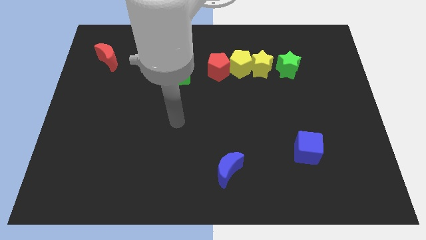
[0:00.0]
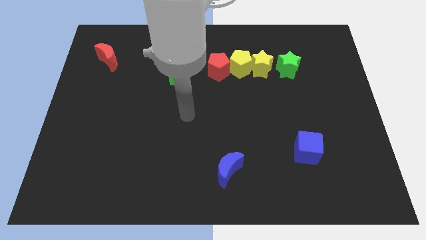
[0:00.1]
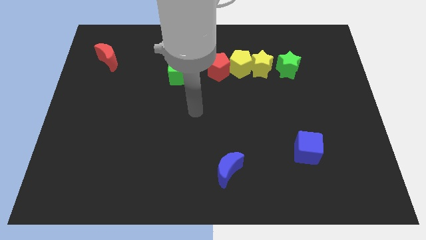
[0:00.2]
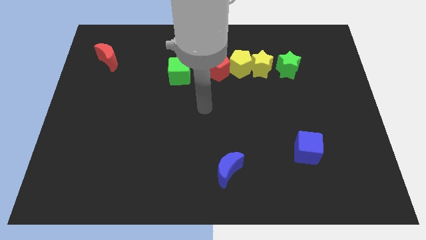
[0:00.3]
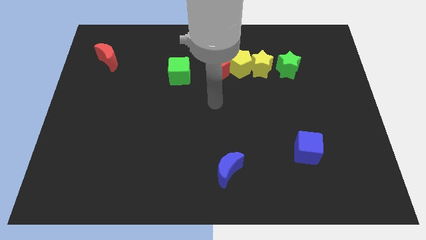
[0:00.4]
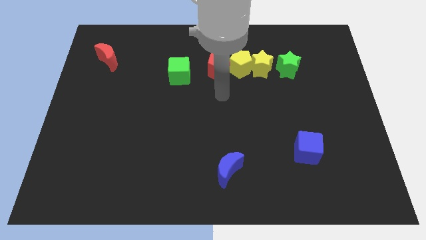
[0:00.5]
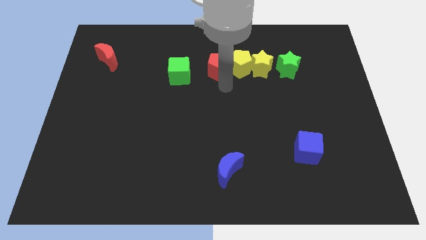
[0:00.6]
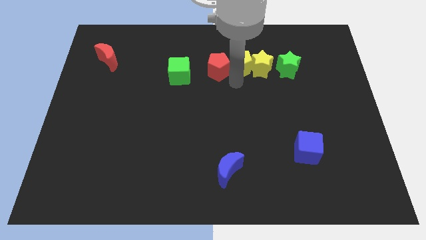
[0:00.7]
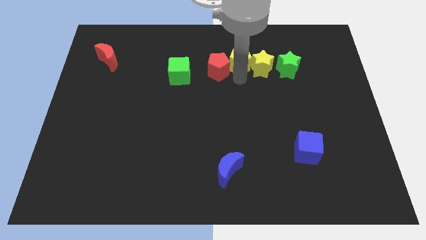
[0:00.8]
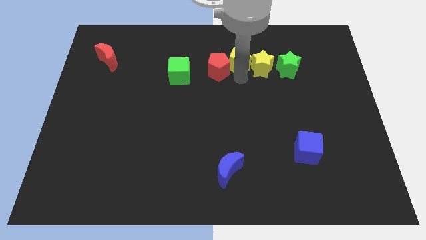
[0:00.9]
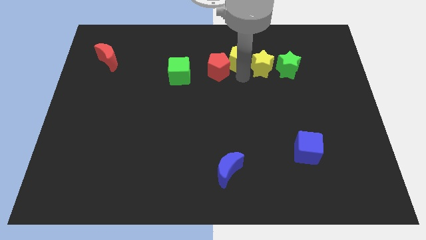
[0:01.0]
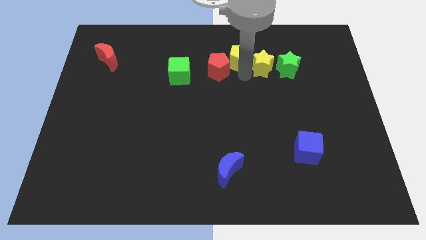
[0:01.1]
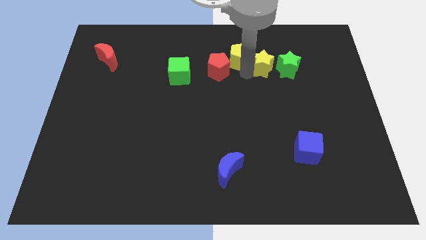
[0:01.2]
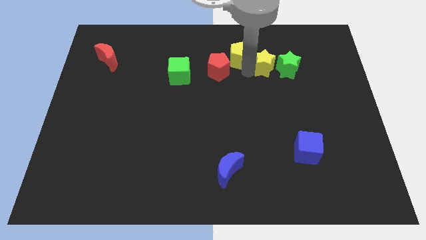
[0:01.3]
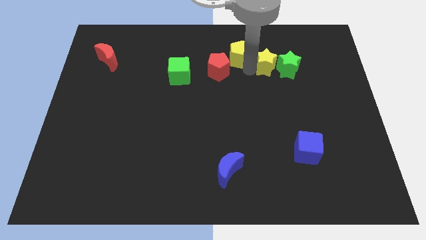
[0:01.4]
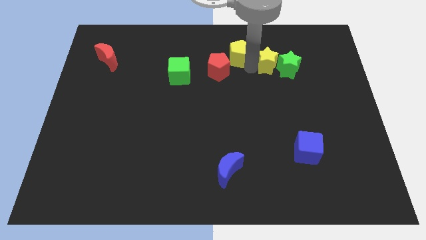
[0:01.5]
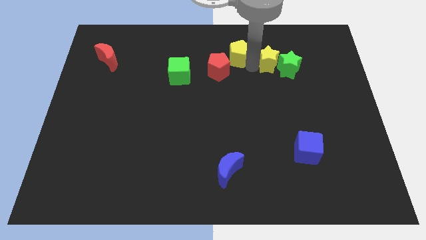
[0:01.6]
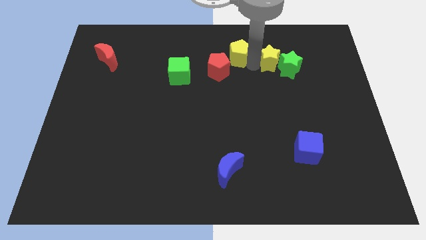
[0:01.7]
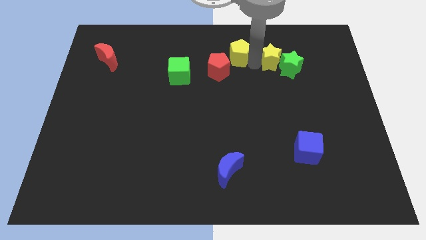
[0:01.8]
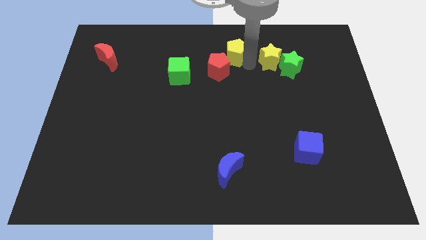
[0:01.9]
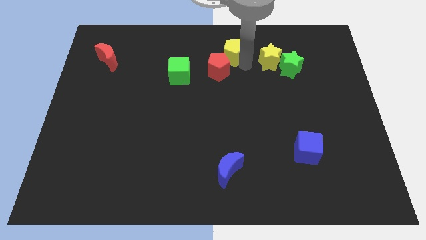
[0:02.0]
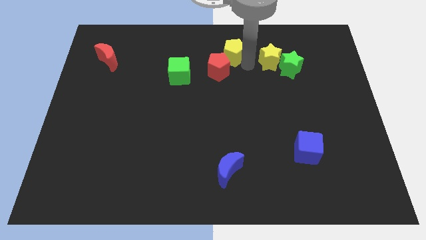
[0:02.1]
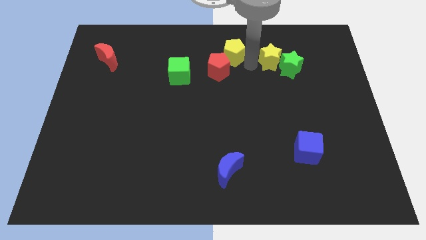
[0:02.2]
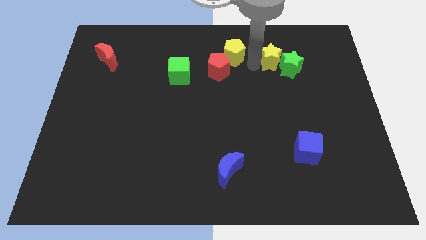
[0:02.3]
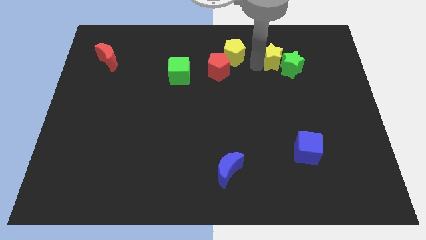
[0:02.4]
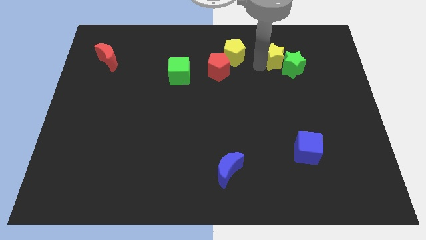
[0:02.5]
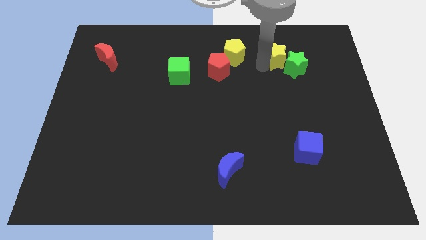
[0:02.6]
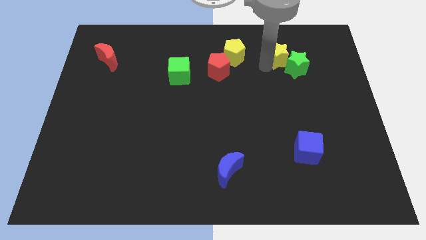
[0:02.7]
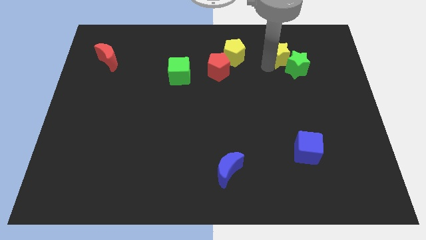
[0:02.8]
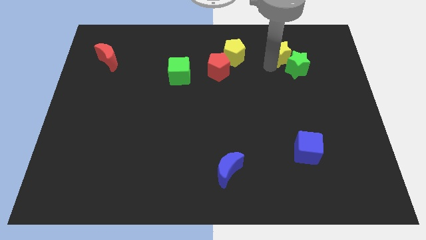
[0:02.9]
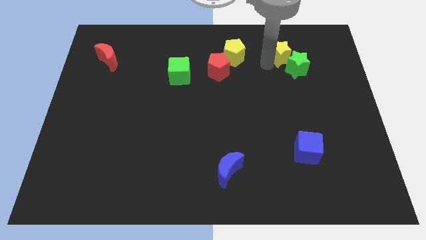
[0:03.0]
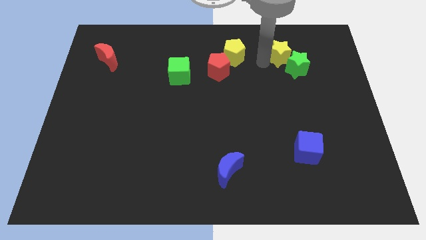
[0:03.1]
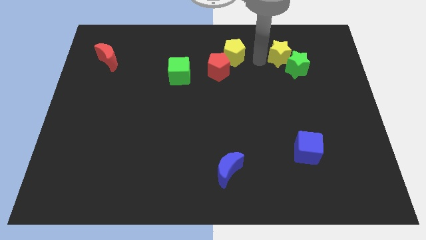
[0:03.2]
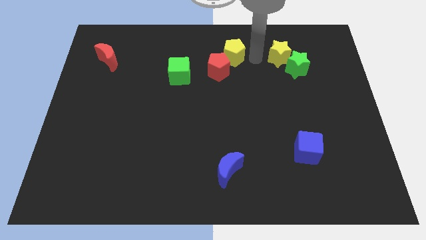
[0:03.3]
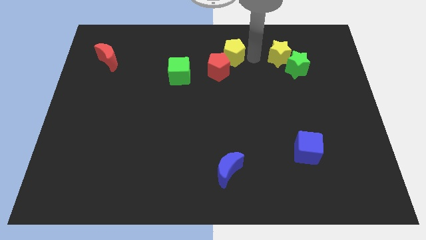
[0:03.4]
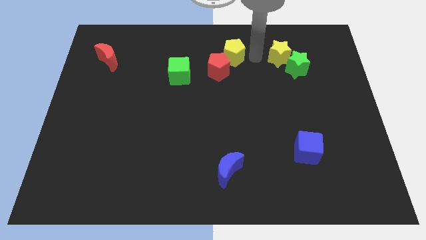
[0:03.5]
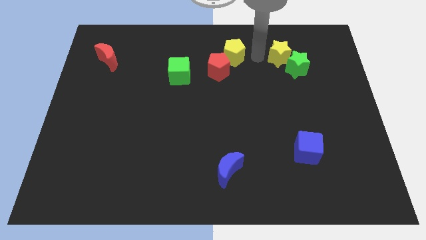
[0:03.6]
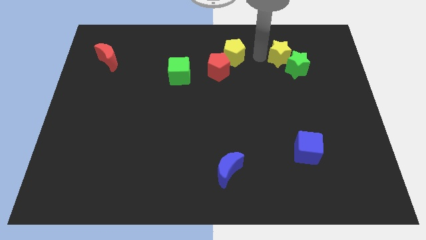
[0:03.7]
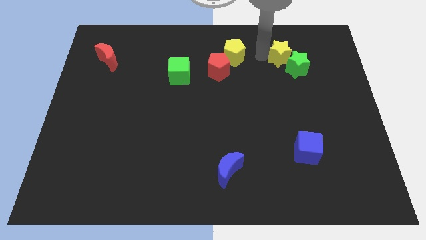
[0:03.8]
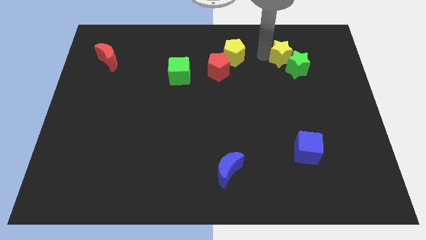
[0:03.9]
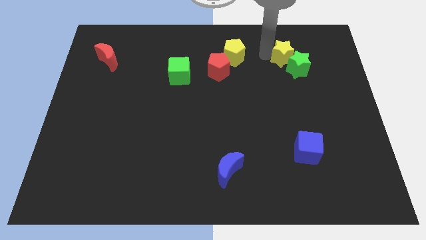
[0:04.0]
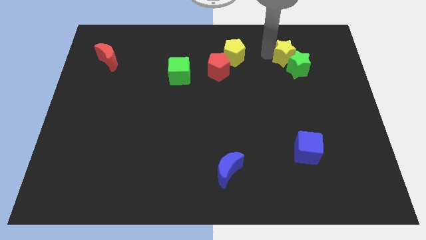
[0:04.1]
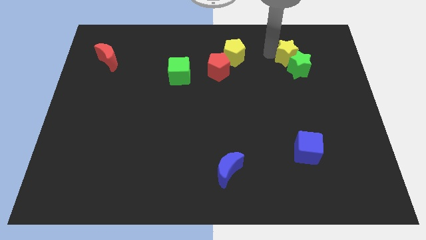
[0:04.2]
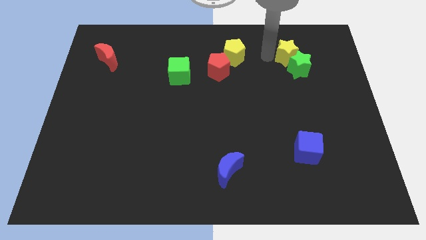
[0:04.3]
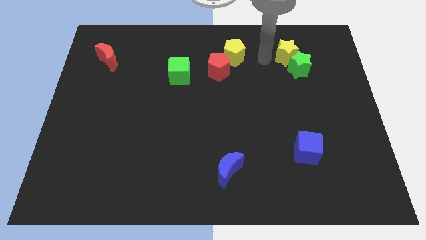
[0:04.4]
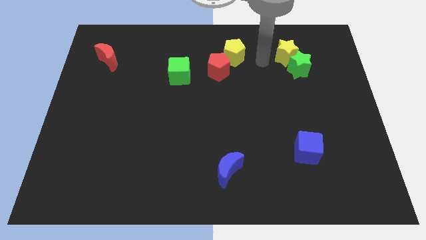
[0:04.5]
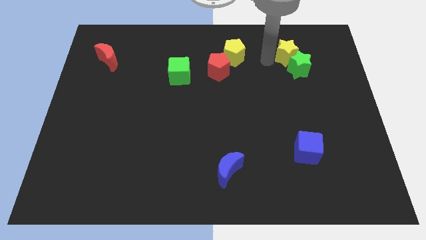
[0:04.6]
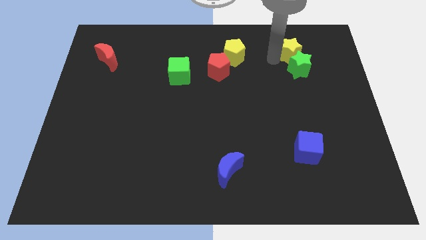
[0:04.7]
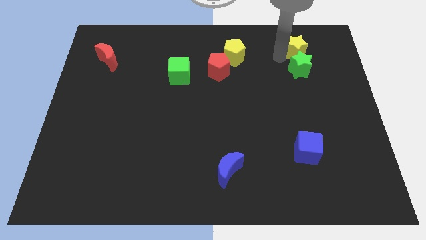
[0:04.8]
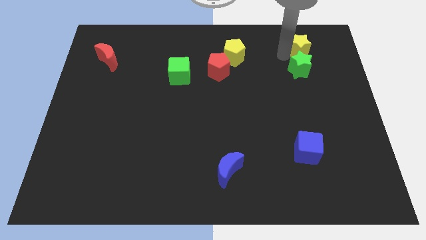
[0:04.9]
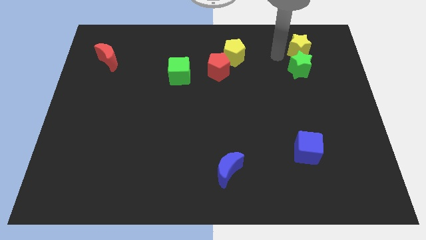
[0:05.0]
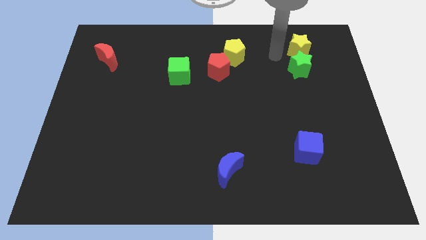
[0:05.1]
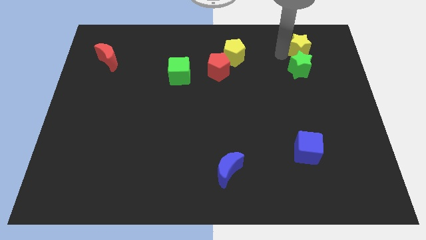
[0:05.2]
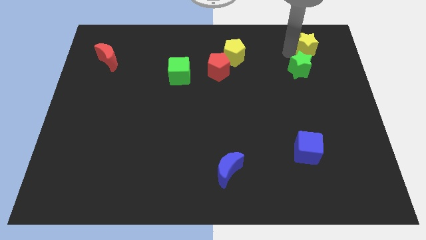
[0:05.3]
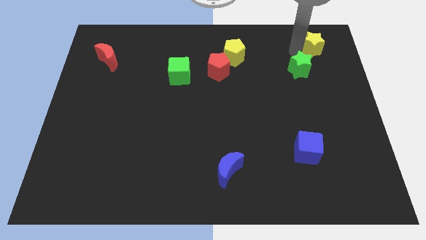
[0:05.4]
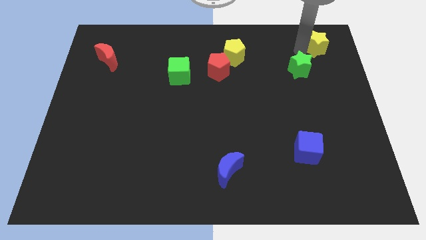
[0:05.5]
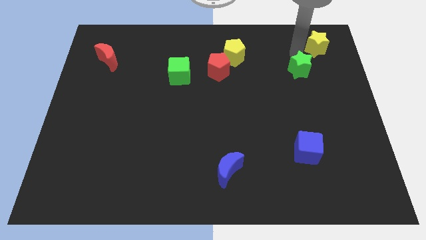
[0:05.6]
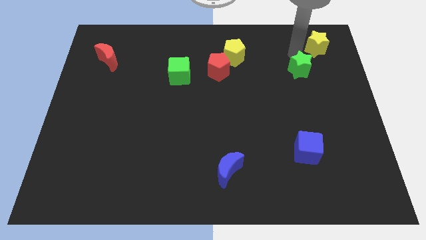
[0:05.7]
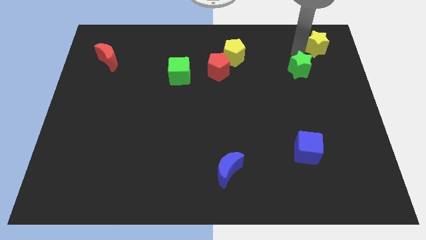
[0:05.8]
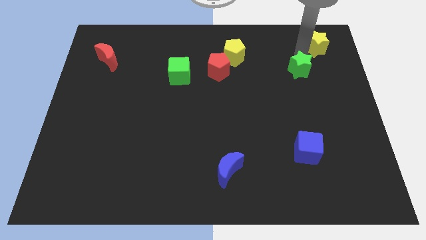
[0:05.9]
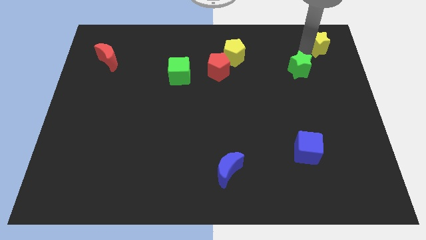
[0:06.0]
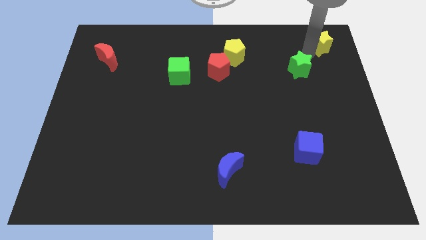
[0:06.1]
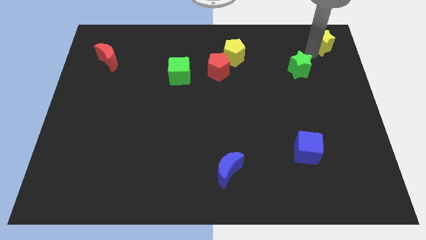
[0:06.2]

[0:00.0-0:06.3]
push the yellow star to the upper right corner
